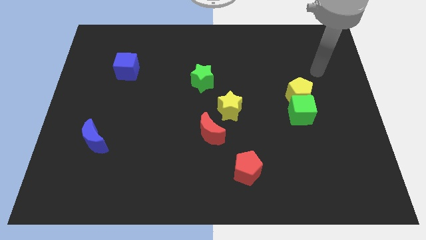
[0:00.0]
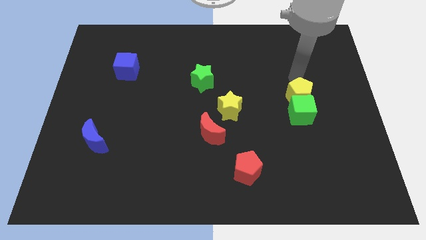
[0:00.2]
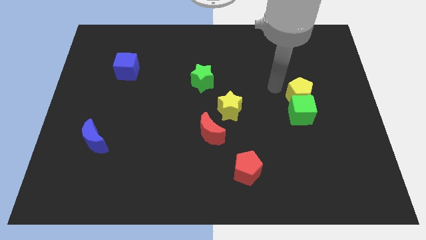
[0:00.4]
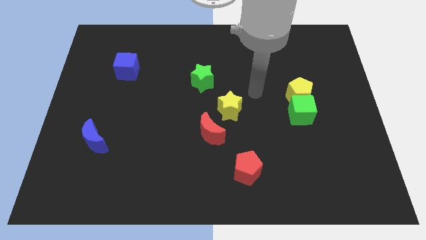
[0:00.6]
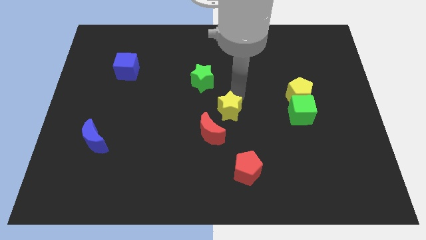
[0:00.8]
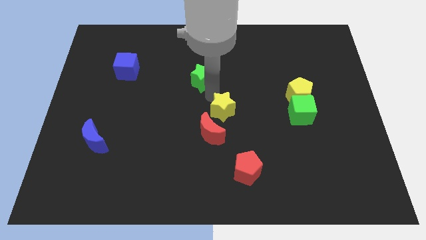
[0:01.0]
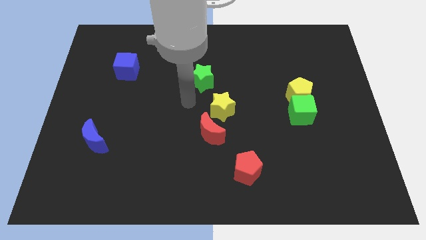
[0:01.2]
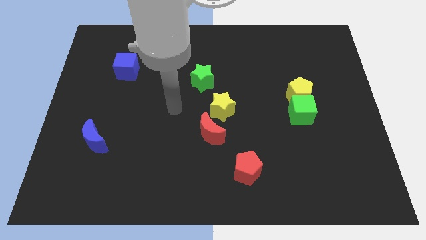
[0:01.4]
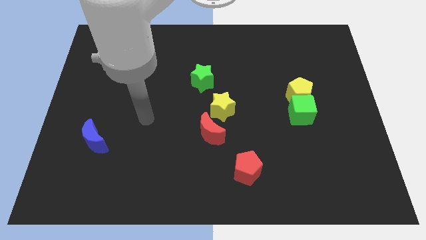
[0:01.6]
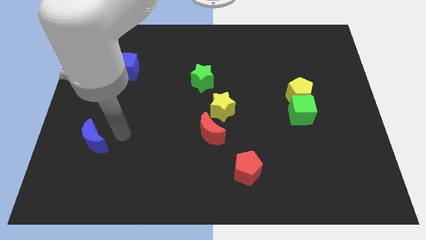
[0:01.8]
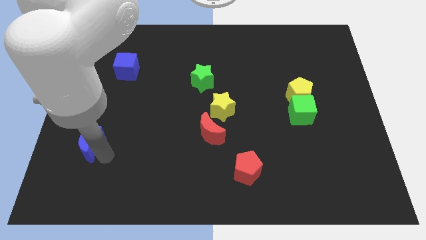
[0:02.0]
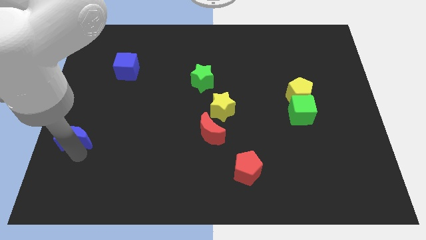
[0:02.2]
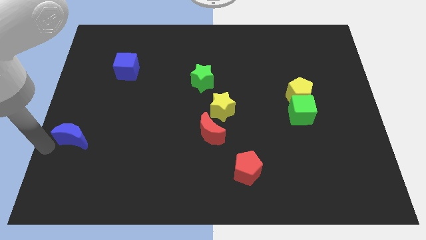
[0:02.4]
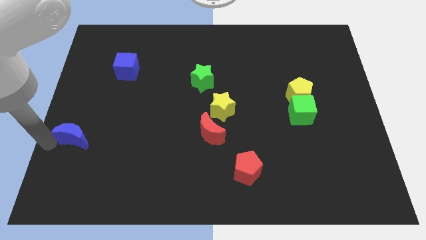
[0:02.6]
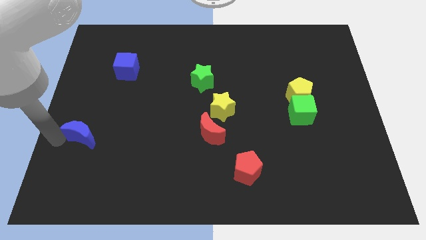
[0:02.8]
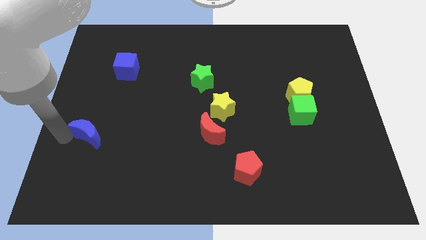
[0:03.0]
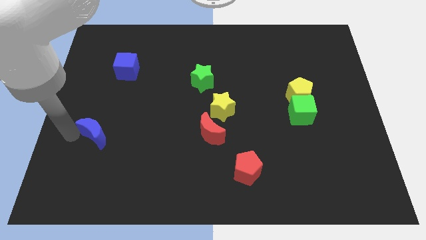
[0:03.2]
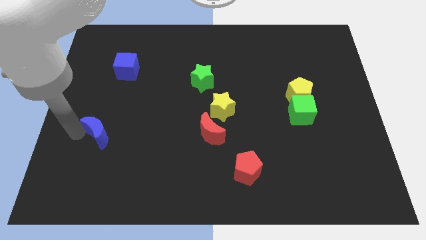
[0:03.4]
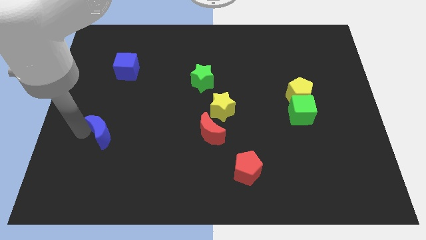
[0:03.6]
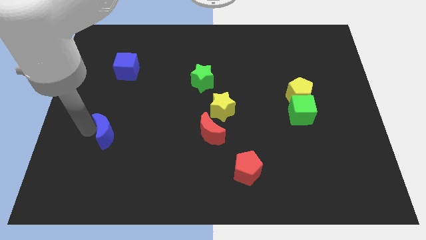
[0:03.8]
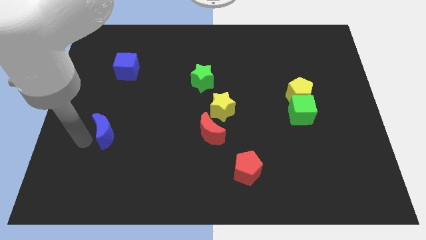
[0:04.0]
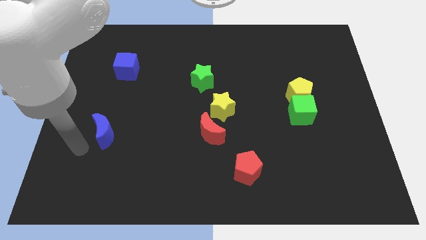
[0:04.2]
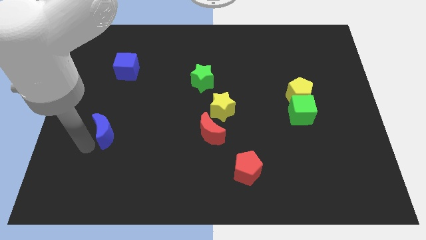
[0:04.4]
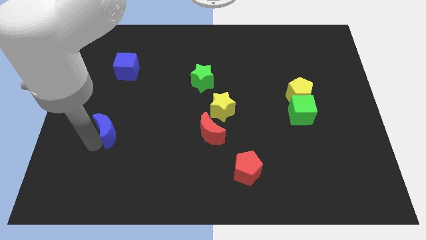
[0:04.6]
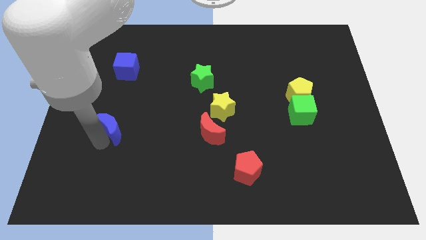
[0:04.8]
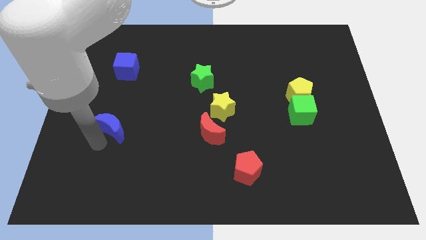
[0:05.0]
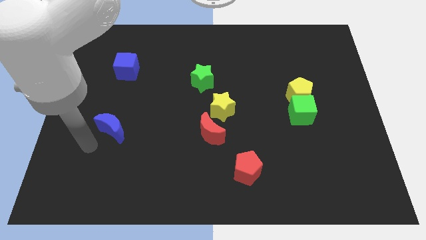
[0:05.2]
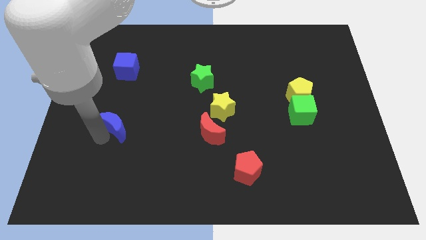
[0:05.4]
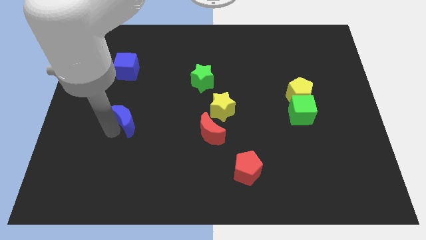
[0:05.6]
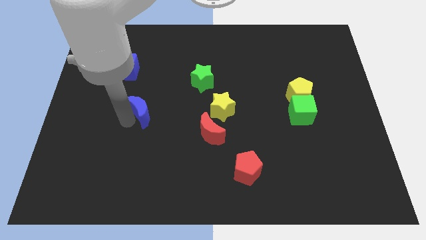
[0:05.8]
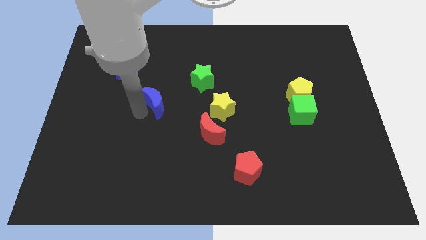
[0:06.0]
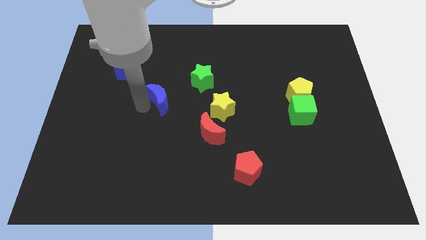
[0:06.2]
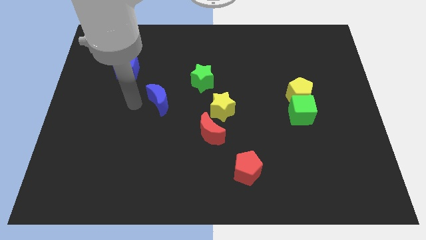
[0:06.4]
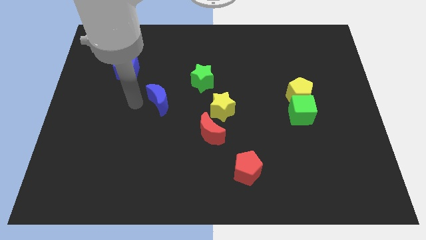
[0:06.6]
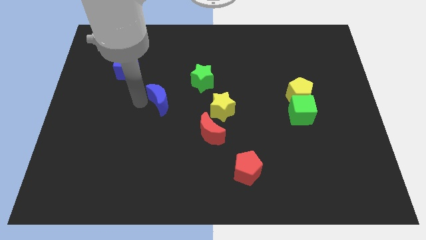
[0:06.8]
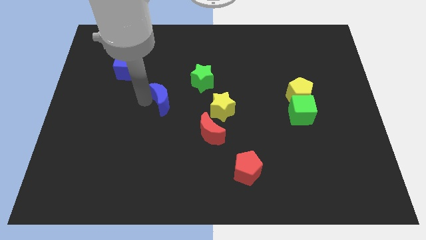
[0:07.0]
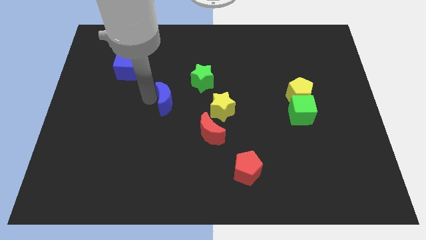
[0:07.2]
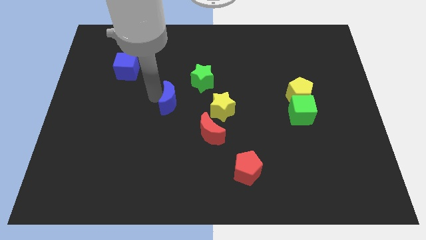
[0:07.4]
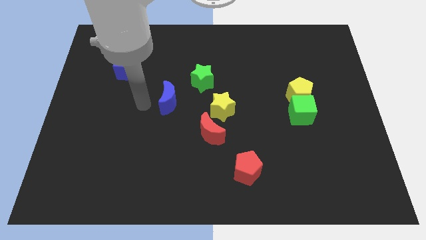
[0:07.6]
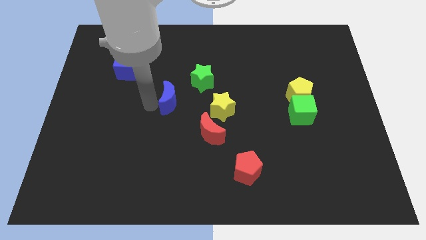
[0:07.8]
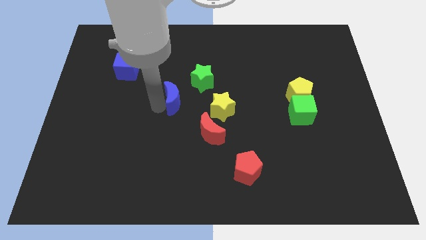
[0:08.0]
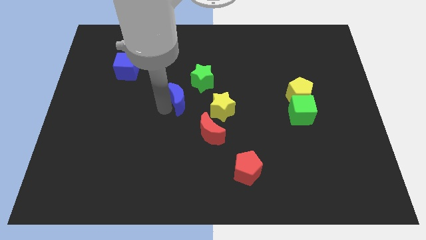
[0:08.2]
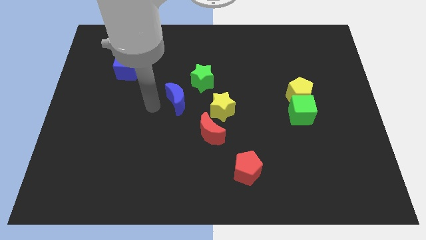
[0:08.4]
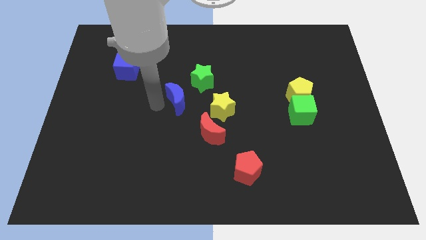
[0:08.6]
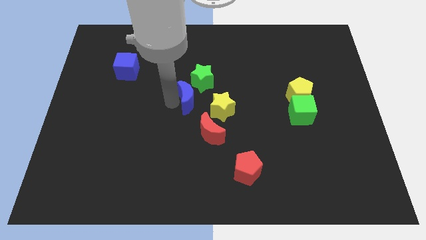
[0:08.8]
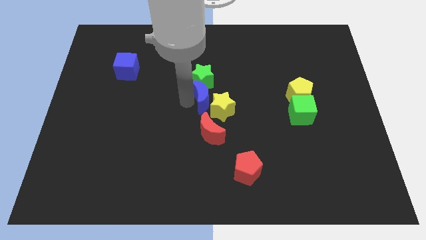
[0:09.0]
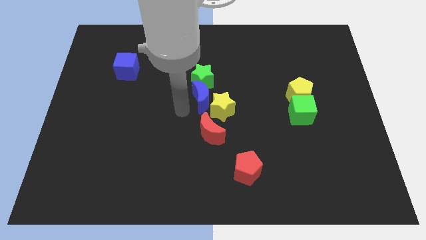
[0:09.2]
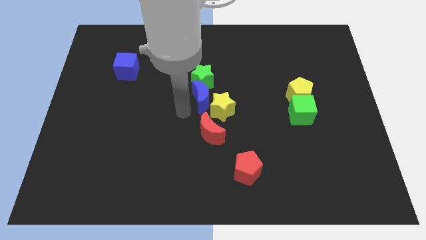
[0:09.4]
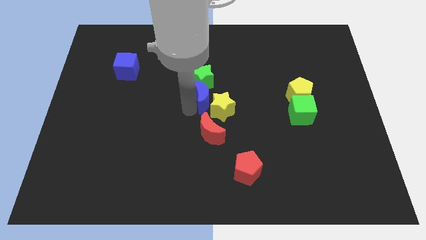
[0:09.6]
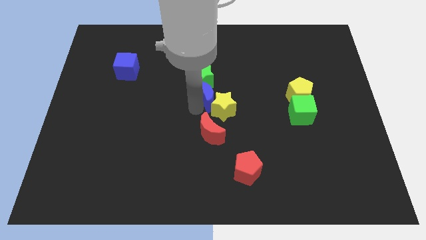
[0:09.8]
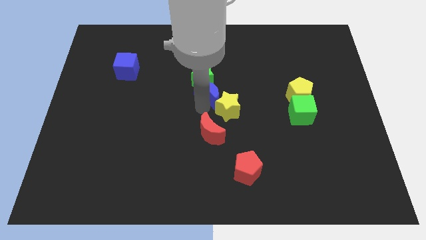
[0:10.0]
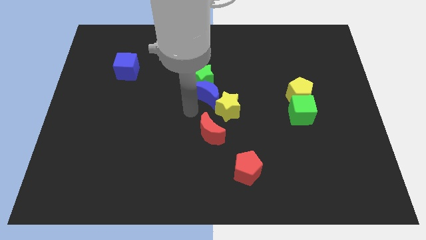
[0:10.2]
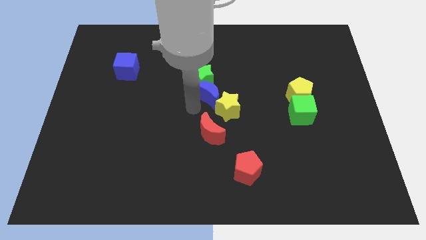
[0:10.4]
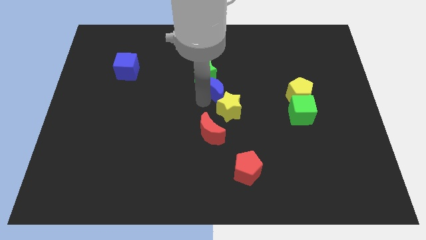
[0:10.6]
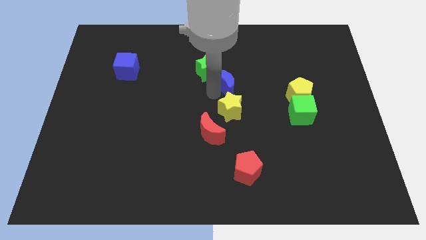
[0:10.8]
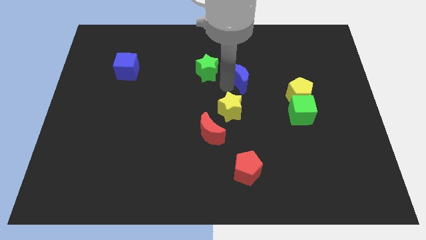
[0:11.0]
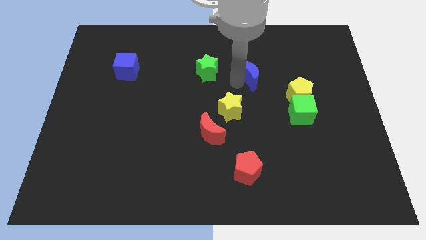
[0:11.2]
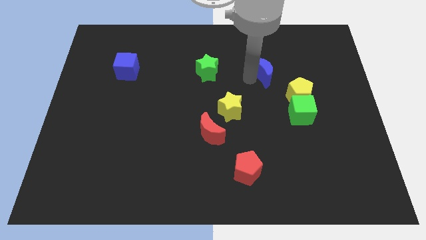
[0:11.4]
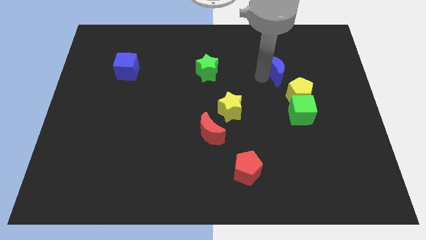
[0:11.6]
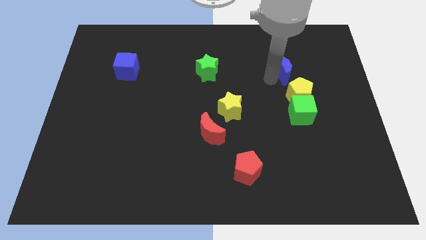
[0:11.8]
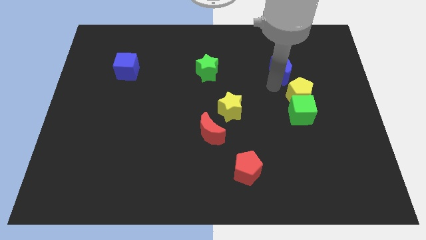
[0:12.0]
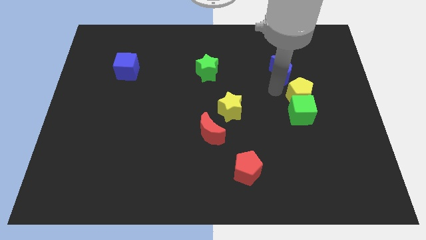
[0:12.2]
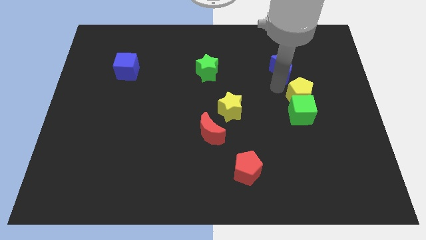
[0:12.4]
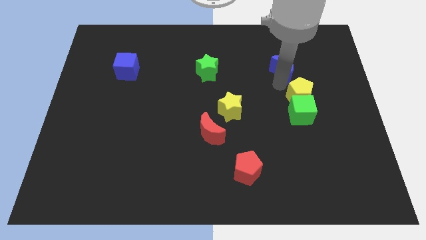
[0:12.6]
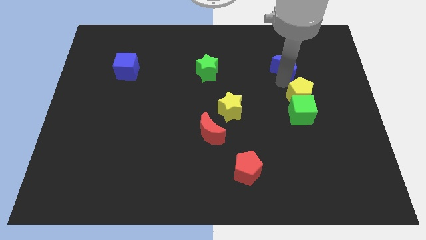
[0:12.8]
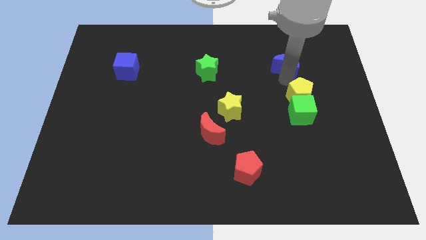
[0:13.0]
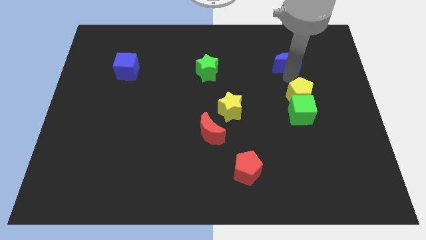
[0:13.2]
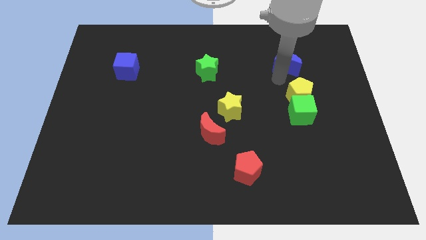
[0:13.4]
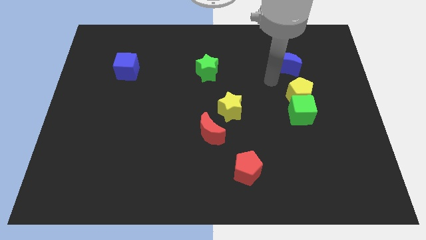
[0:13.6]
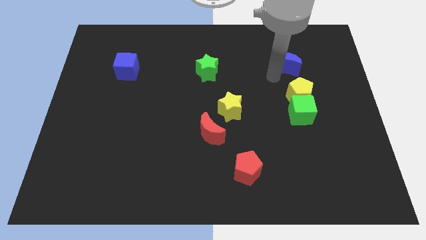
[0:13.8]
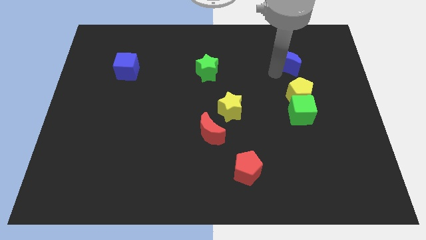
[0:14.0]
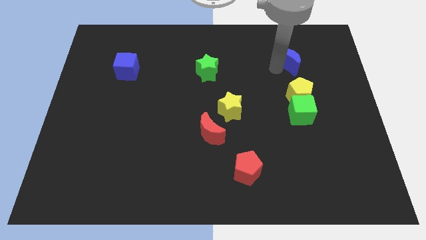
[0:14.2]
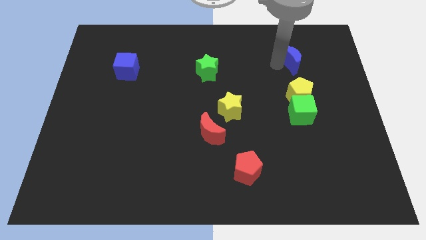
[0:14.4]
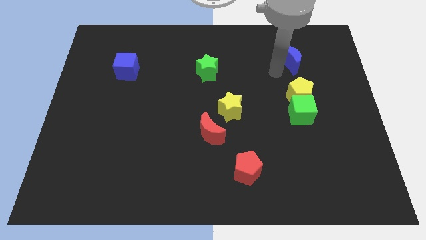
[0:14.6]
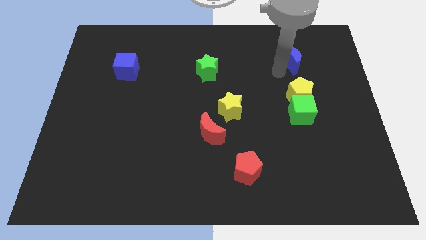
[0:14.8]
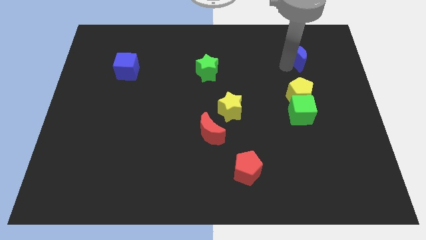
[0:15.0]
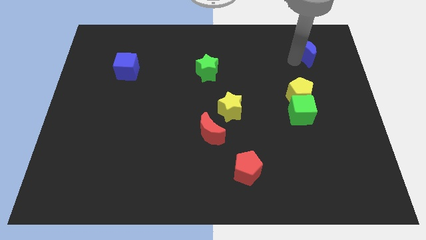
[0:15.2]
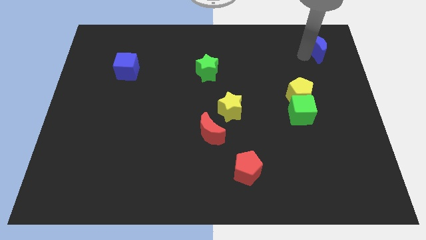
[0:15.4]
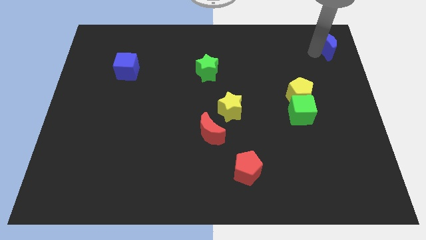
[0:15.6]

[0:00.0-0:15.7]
push the blue moon to the upper right corner
